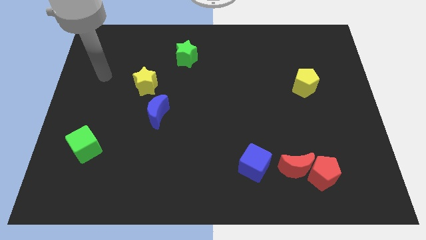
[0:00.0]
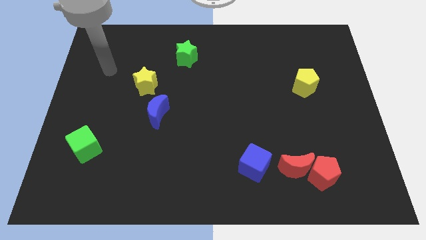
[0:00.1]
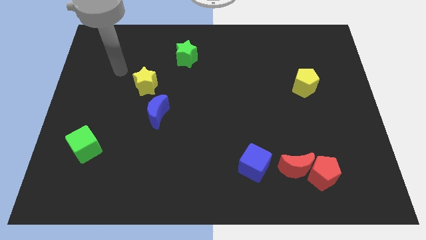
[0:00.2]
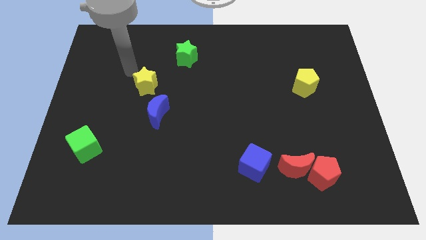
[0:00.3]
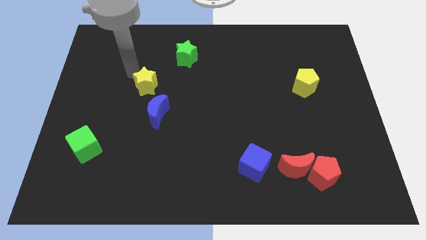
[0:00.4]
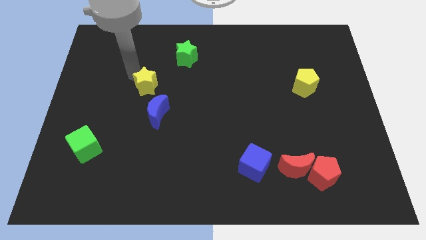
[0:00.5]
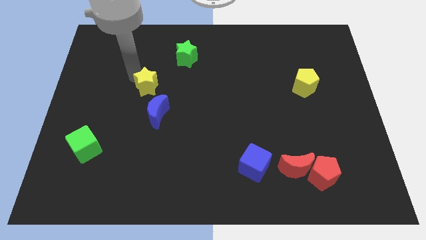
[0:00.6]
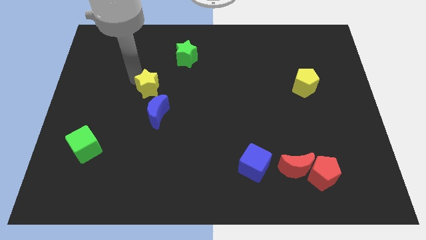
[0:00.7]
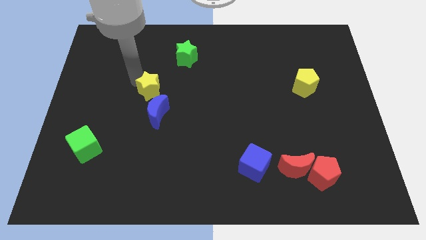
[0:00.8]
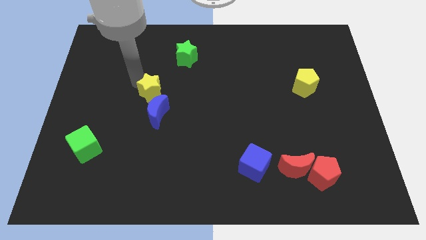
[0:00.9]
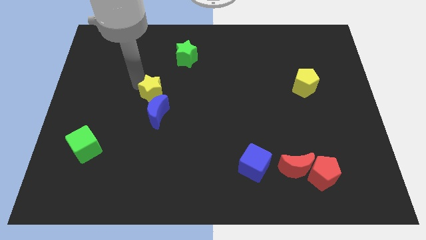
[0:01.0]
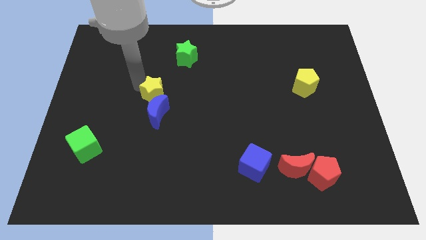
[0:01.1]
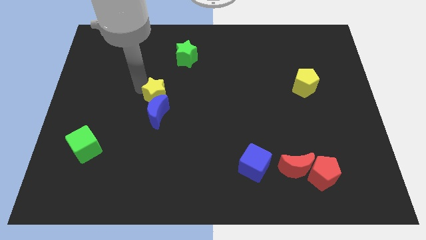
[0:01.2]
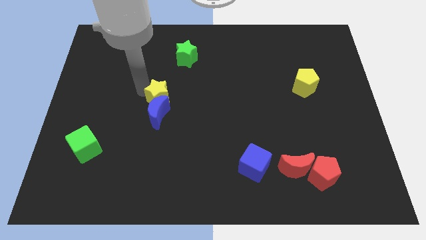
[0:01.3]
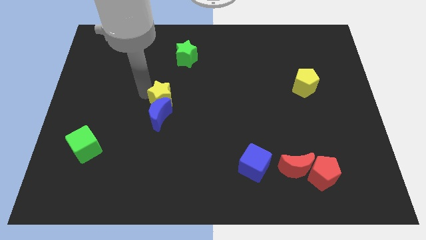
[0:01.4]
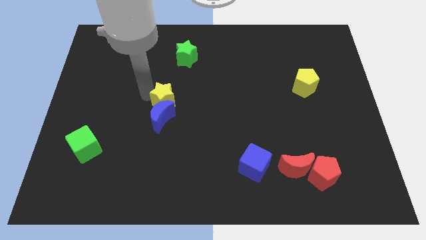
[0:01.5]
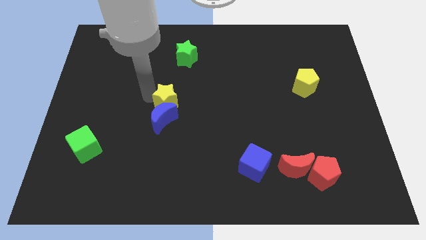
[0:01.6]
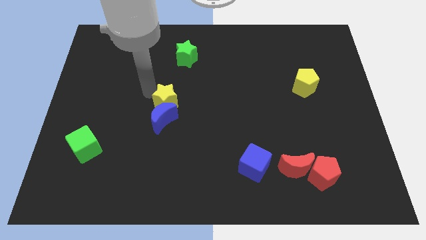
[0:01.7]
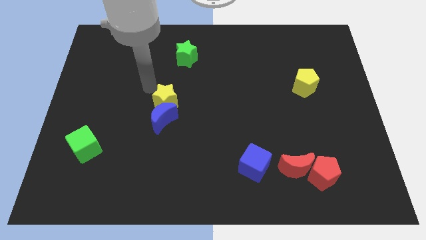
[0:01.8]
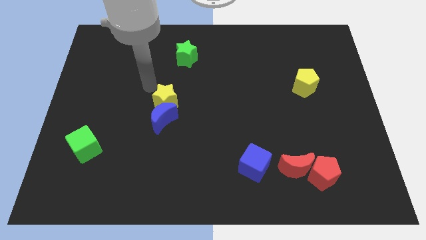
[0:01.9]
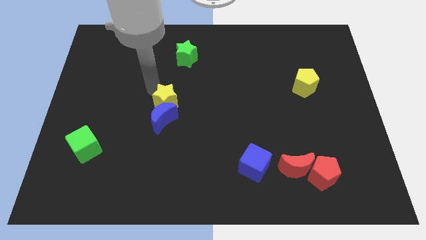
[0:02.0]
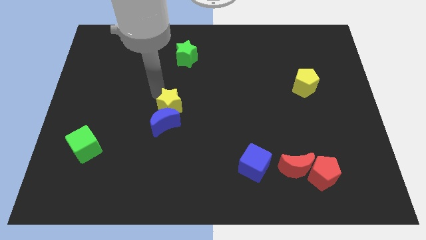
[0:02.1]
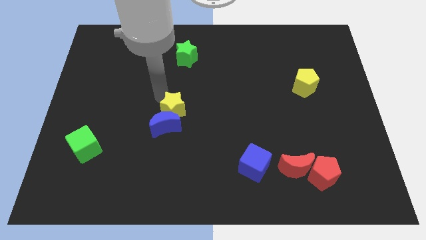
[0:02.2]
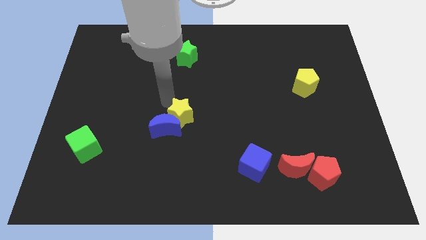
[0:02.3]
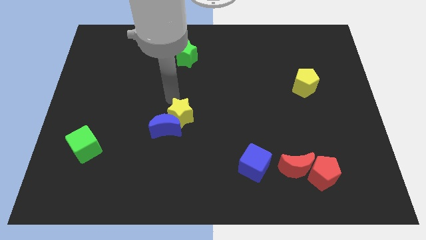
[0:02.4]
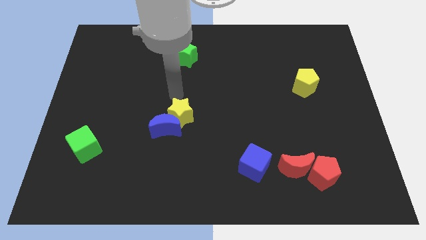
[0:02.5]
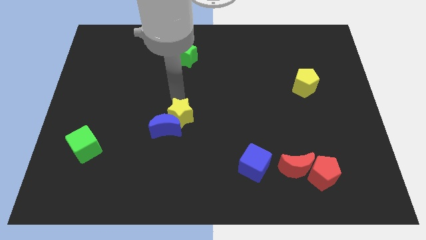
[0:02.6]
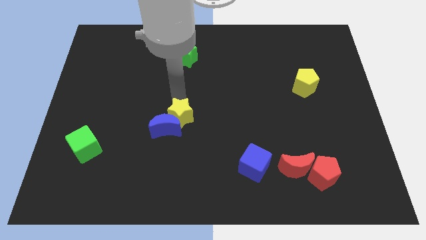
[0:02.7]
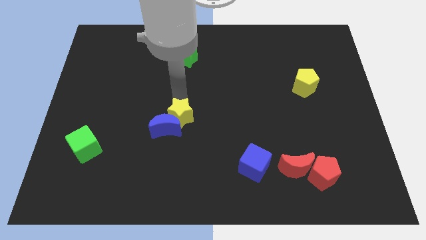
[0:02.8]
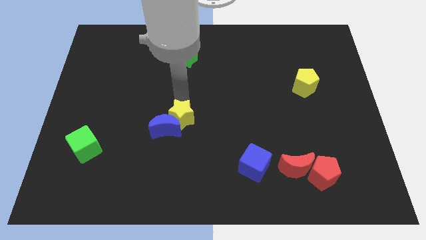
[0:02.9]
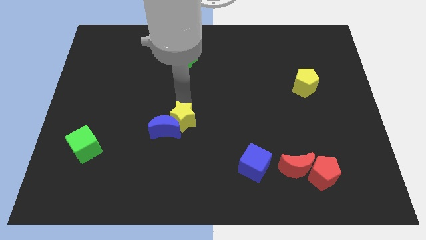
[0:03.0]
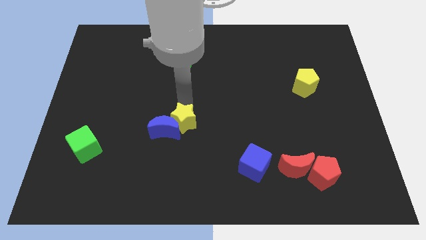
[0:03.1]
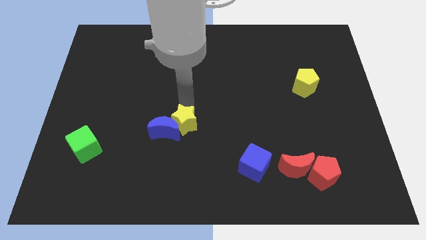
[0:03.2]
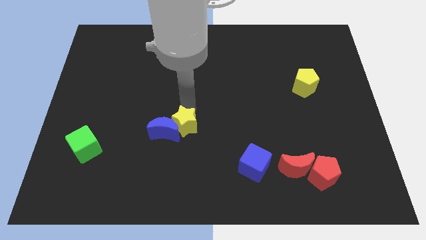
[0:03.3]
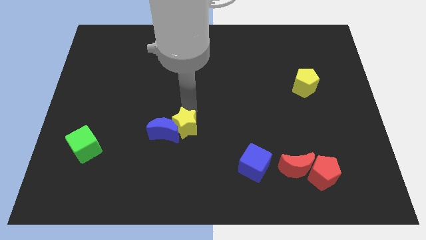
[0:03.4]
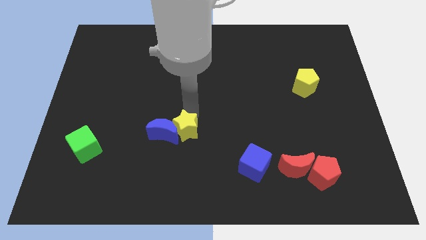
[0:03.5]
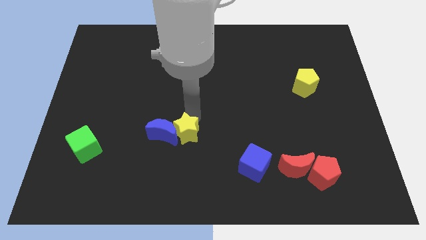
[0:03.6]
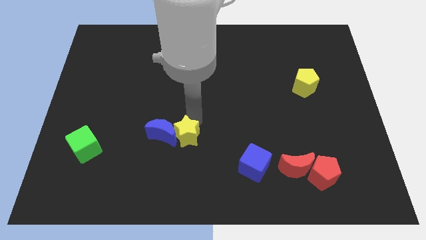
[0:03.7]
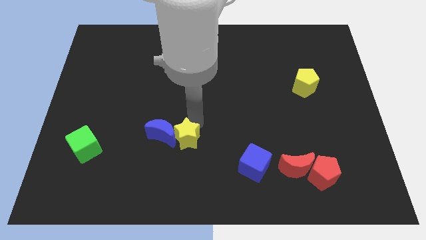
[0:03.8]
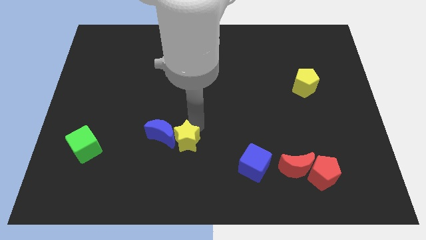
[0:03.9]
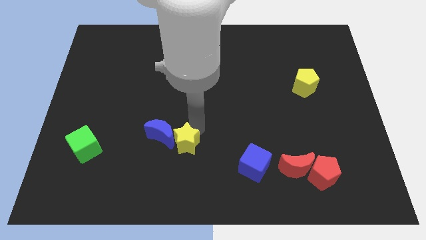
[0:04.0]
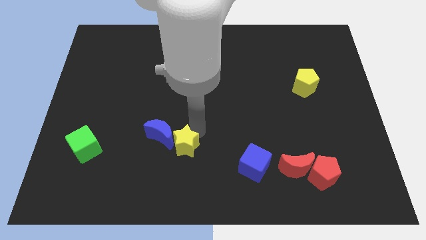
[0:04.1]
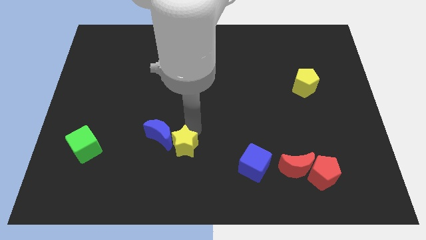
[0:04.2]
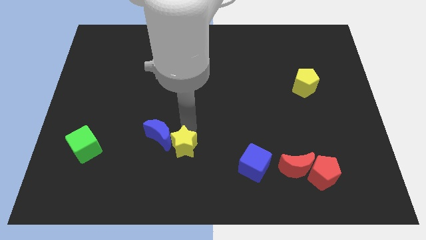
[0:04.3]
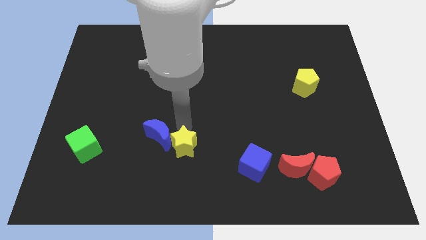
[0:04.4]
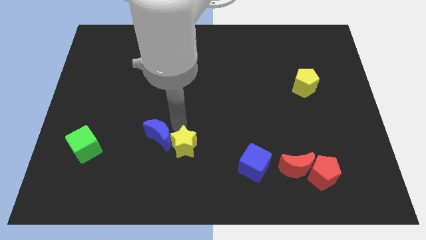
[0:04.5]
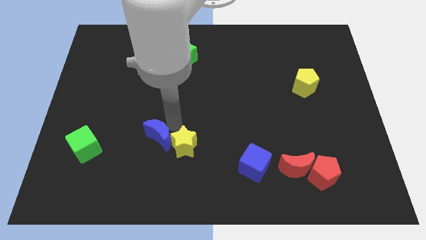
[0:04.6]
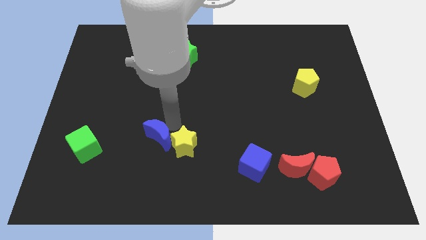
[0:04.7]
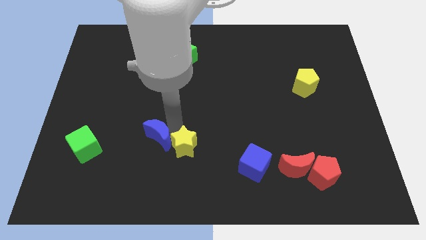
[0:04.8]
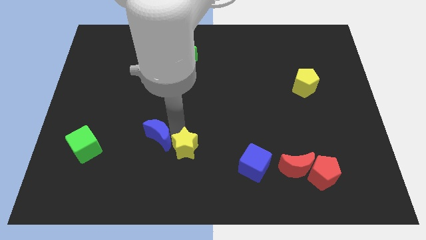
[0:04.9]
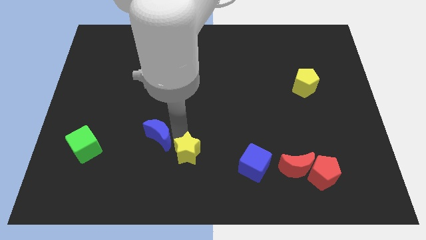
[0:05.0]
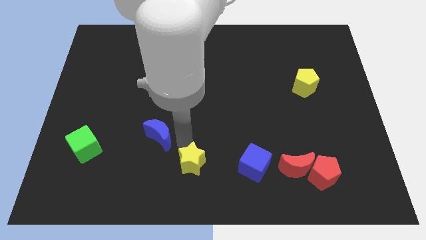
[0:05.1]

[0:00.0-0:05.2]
push the yellow star to the bottom side

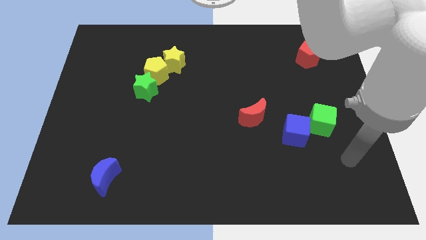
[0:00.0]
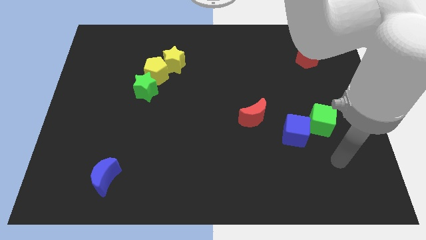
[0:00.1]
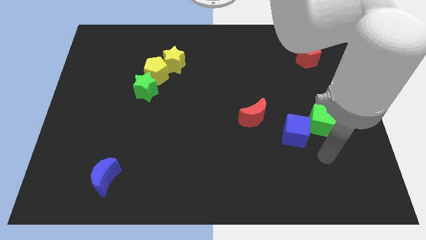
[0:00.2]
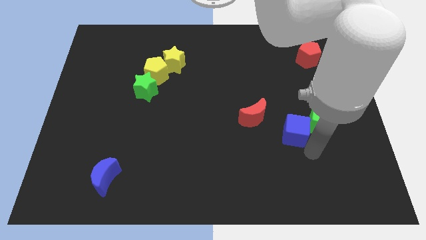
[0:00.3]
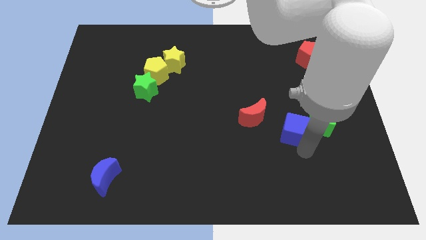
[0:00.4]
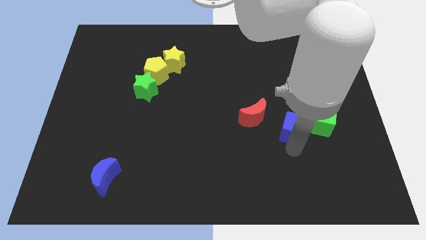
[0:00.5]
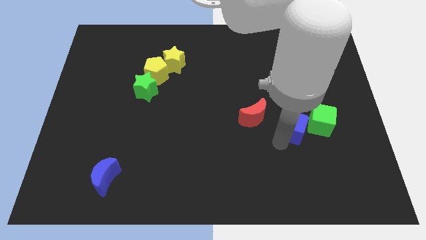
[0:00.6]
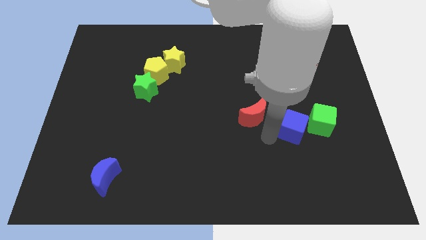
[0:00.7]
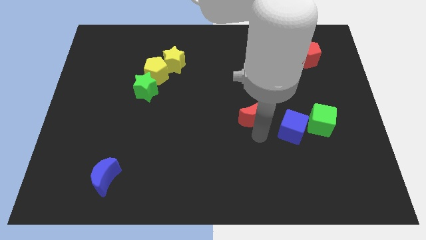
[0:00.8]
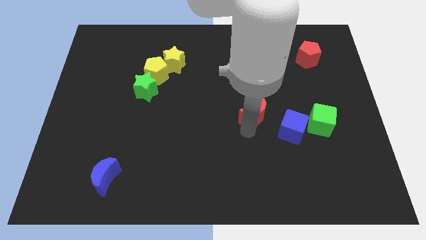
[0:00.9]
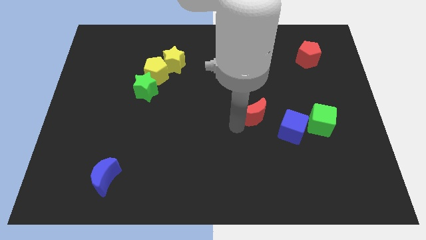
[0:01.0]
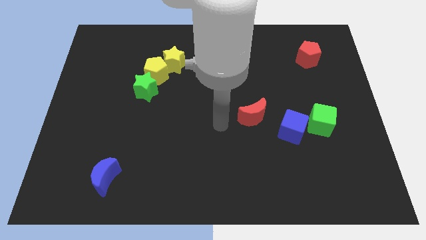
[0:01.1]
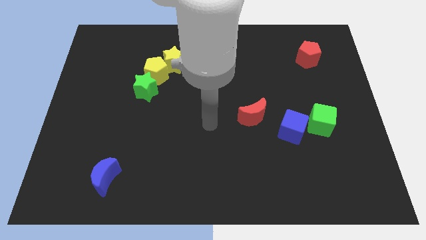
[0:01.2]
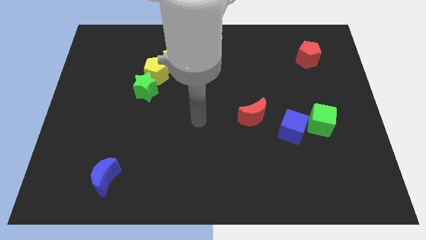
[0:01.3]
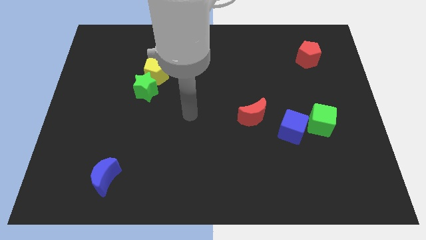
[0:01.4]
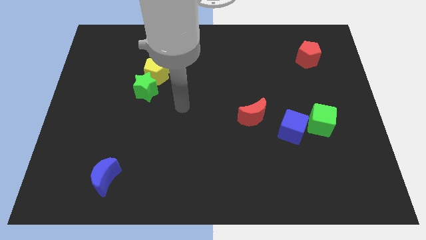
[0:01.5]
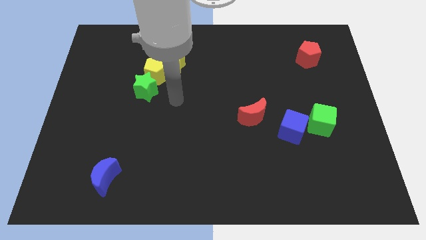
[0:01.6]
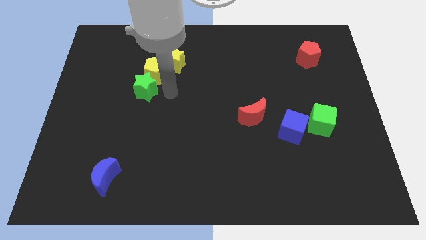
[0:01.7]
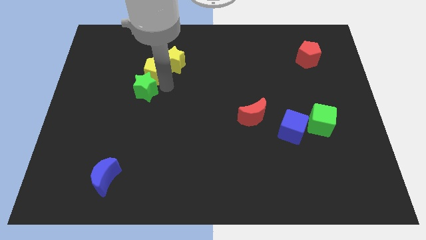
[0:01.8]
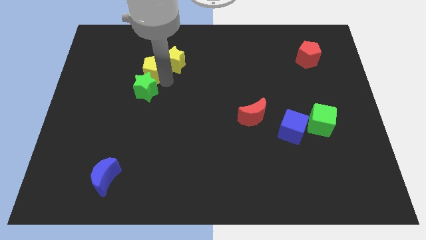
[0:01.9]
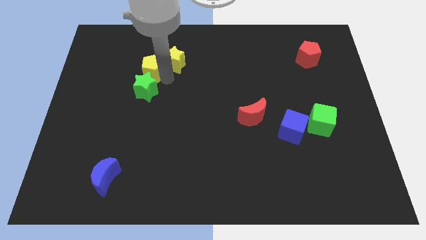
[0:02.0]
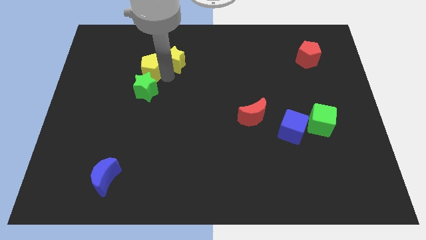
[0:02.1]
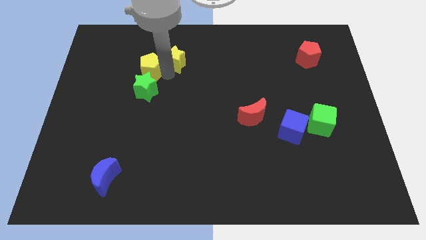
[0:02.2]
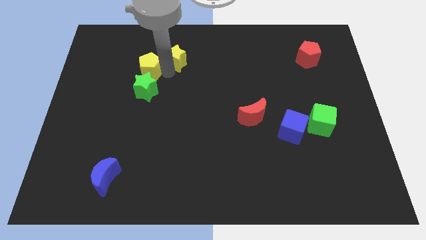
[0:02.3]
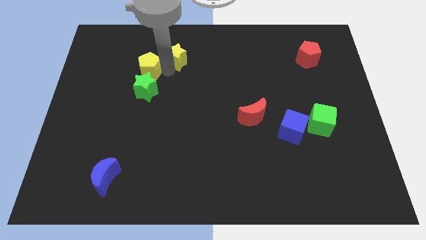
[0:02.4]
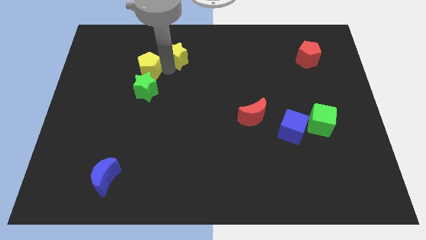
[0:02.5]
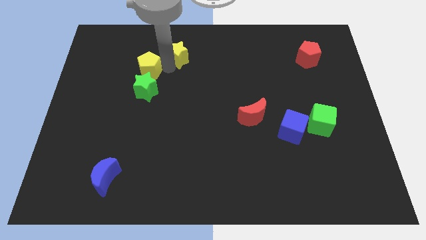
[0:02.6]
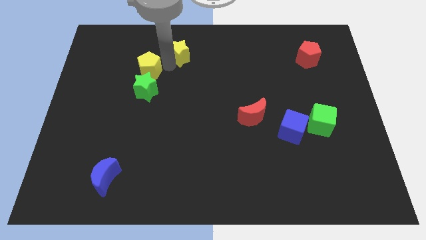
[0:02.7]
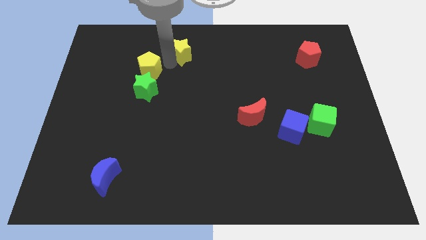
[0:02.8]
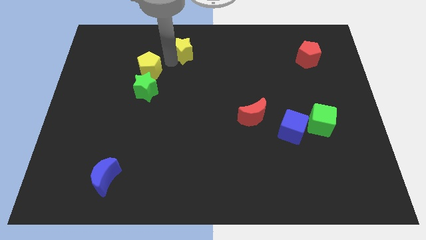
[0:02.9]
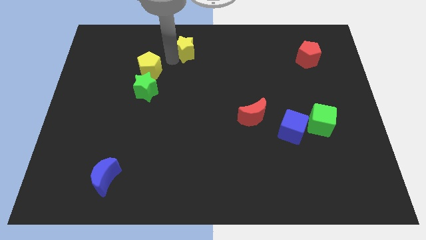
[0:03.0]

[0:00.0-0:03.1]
move the yellow star to the towards your base
